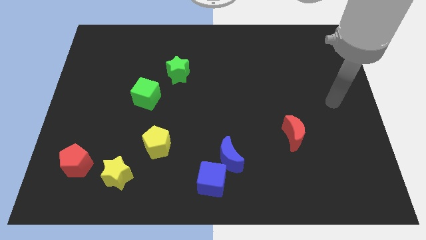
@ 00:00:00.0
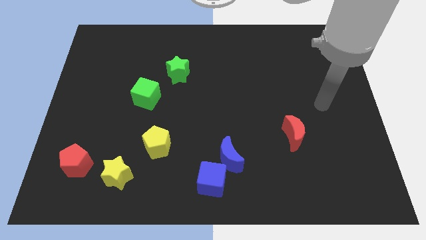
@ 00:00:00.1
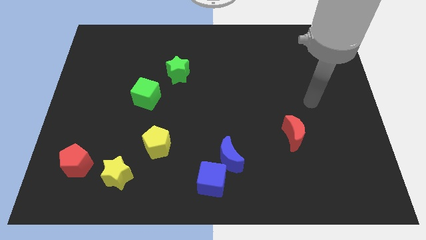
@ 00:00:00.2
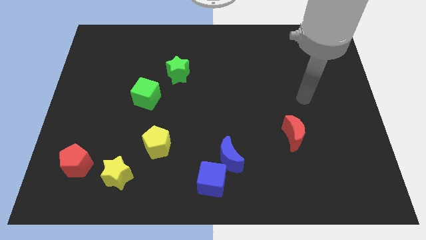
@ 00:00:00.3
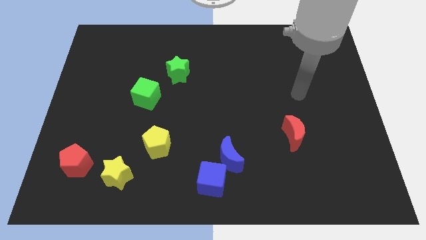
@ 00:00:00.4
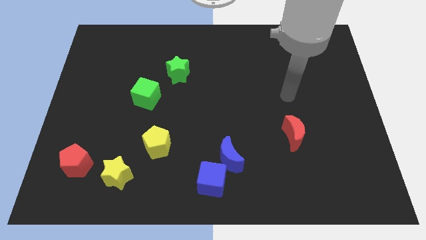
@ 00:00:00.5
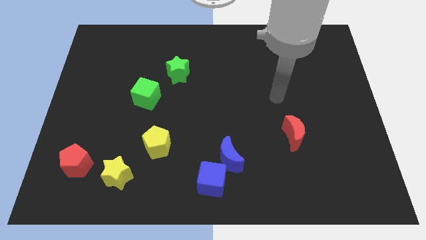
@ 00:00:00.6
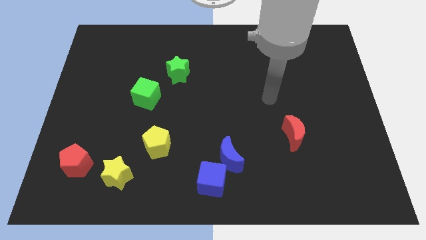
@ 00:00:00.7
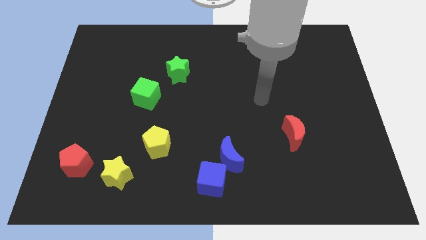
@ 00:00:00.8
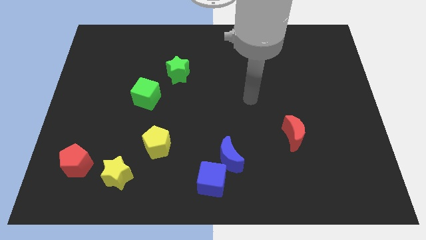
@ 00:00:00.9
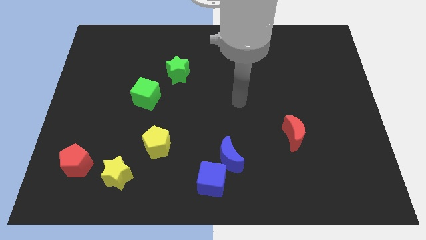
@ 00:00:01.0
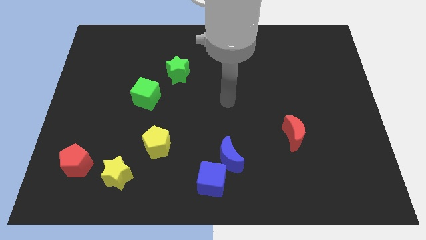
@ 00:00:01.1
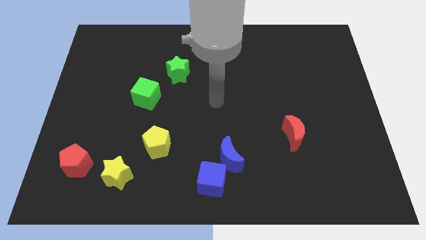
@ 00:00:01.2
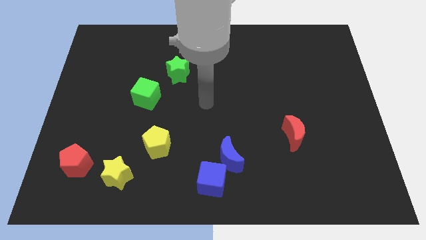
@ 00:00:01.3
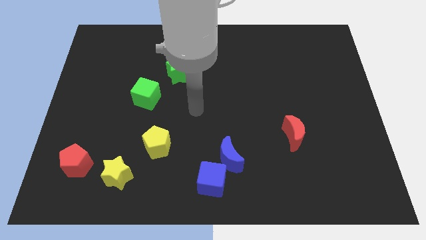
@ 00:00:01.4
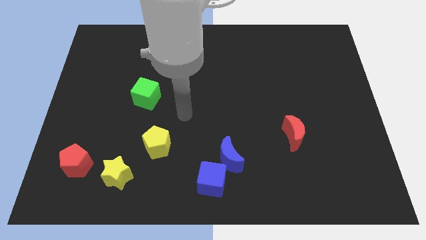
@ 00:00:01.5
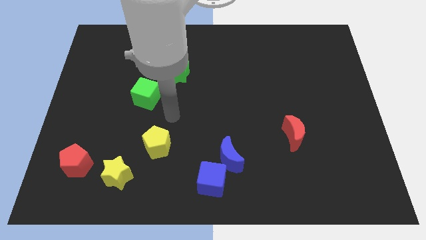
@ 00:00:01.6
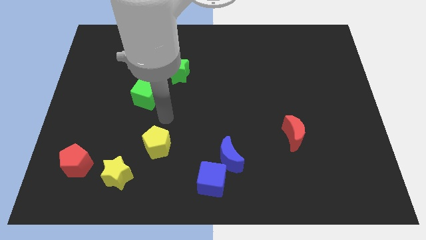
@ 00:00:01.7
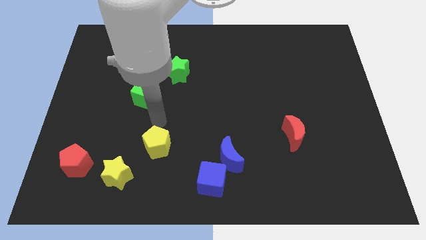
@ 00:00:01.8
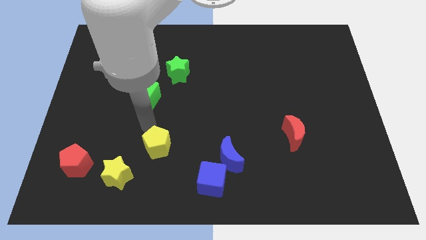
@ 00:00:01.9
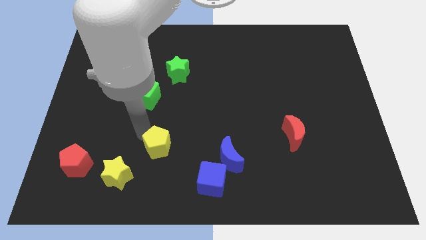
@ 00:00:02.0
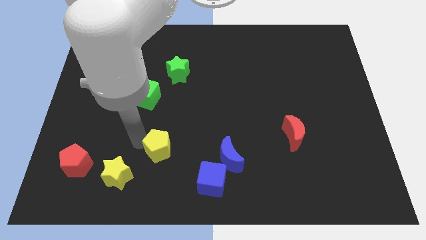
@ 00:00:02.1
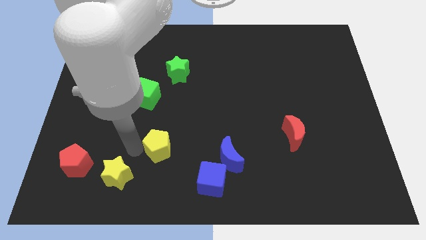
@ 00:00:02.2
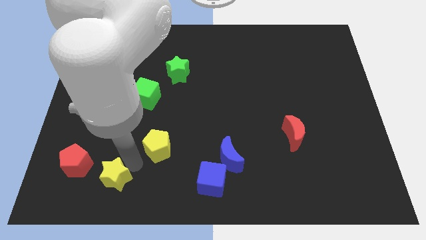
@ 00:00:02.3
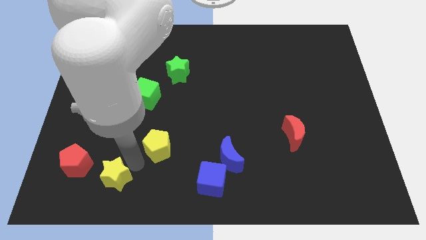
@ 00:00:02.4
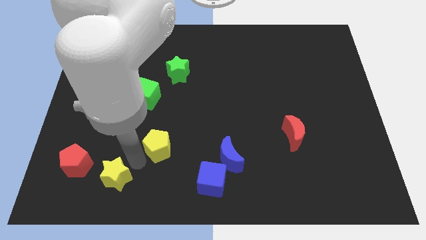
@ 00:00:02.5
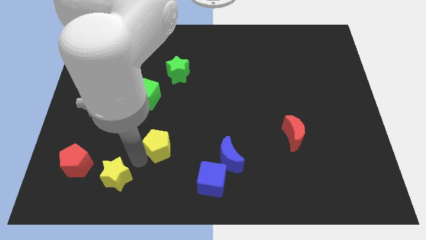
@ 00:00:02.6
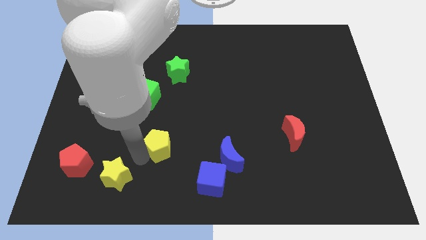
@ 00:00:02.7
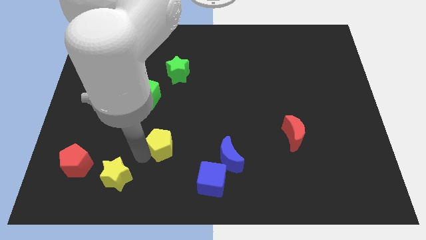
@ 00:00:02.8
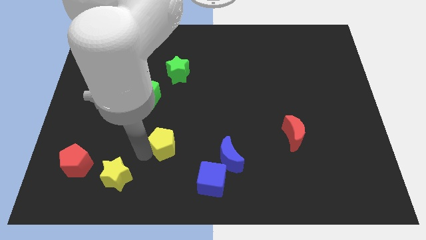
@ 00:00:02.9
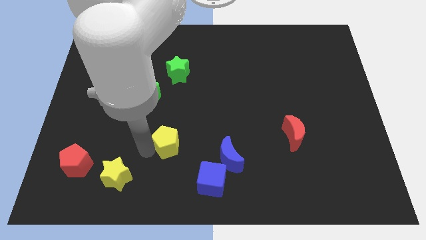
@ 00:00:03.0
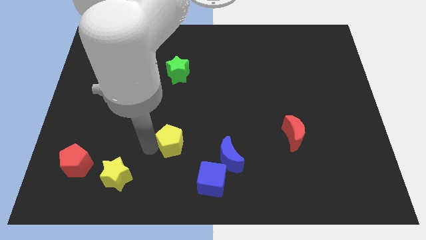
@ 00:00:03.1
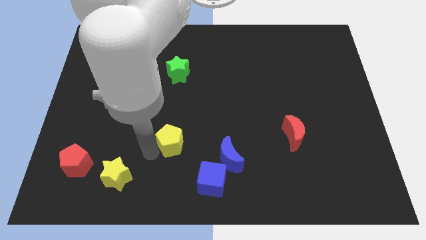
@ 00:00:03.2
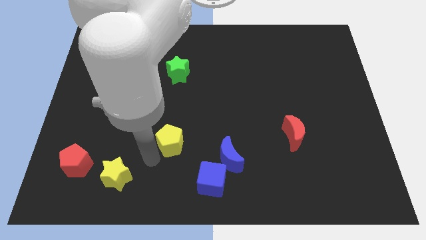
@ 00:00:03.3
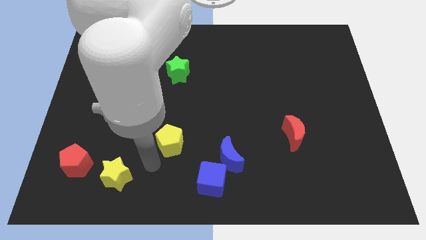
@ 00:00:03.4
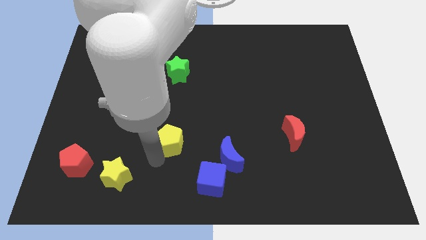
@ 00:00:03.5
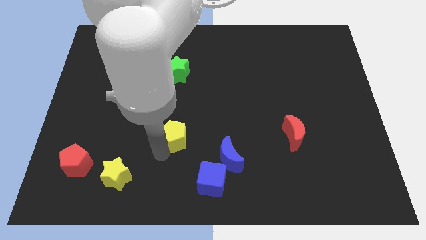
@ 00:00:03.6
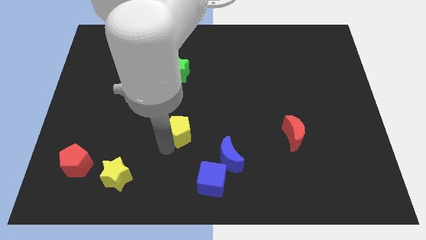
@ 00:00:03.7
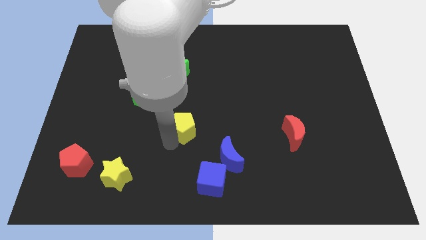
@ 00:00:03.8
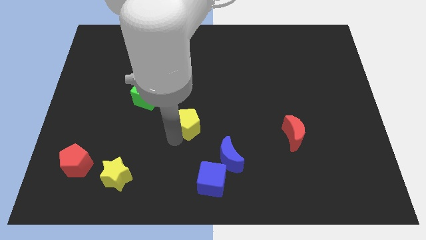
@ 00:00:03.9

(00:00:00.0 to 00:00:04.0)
push the yellow pentagon a little bit upwards and to the right diagonally

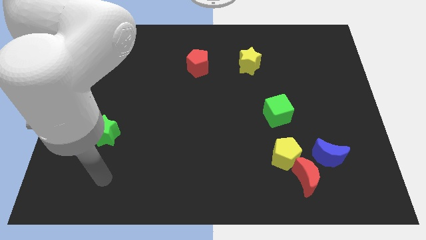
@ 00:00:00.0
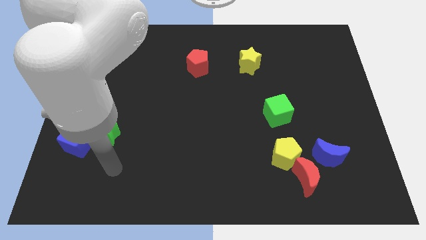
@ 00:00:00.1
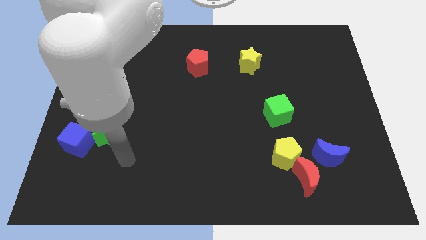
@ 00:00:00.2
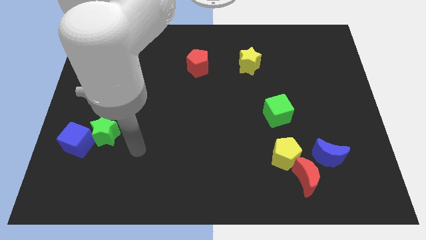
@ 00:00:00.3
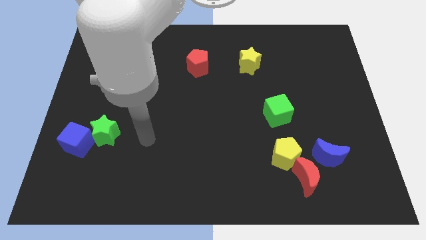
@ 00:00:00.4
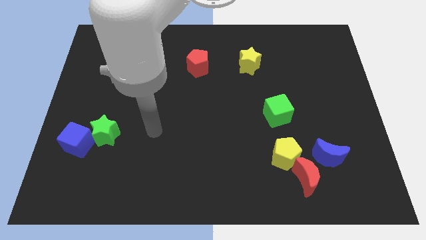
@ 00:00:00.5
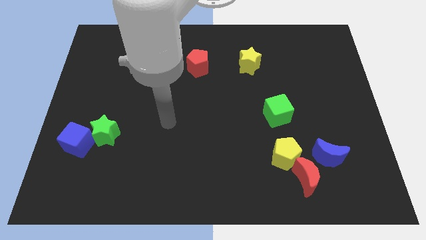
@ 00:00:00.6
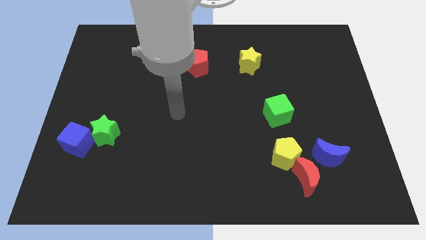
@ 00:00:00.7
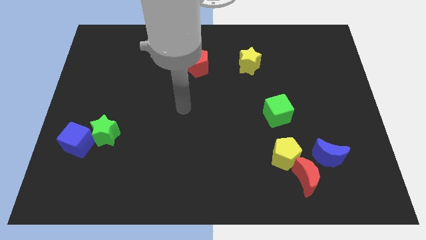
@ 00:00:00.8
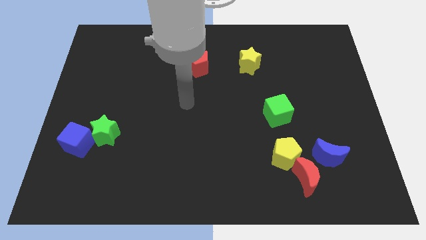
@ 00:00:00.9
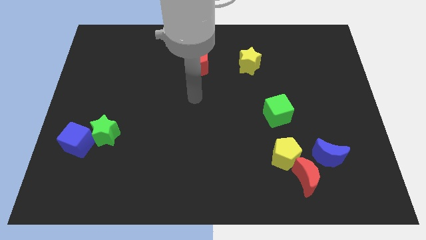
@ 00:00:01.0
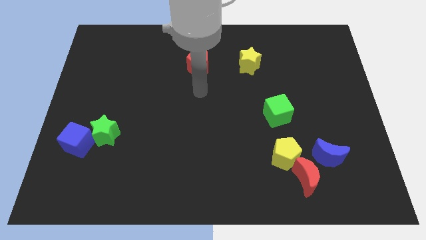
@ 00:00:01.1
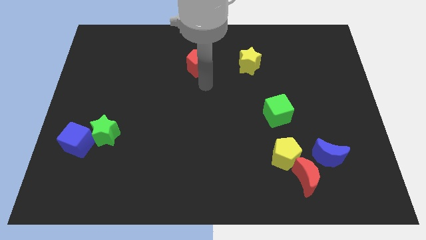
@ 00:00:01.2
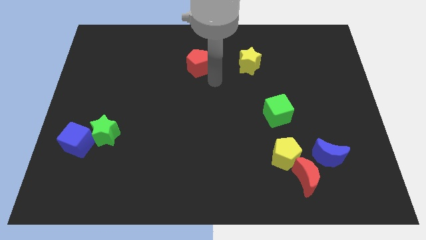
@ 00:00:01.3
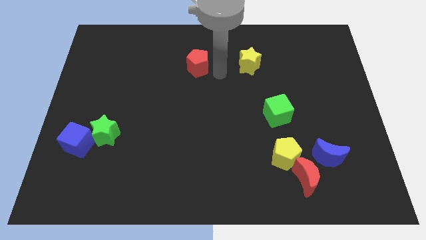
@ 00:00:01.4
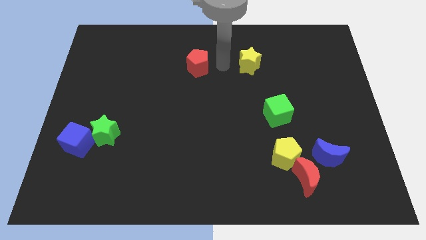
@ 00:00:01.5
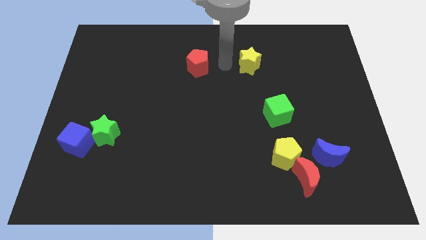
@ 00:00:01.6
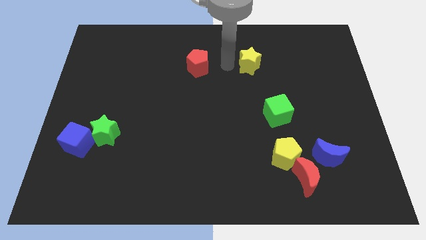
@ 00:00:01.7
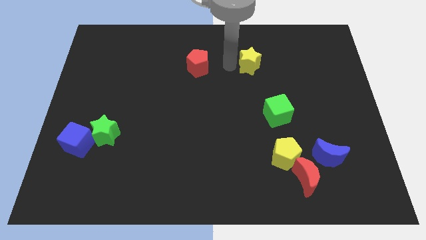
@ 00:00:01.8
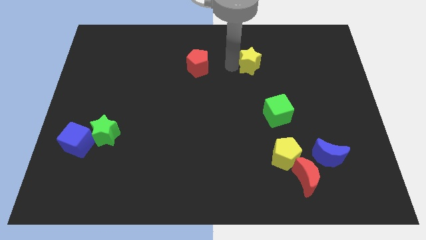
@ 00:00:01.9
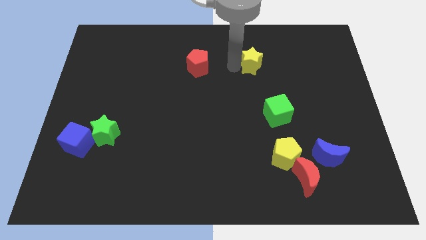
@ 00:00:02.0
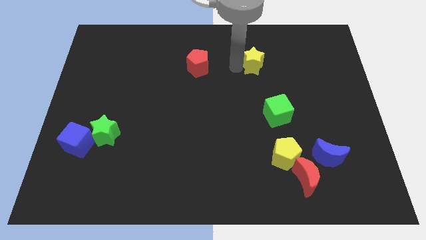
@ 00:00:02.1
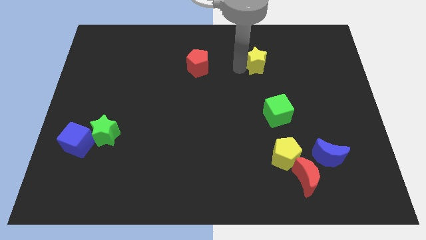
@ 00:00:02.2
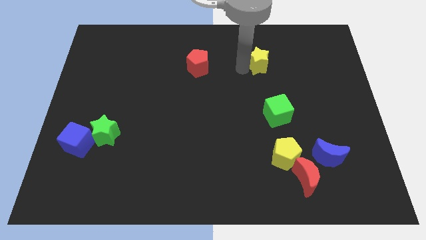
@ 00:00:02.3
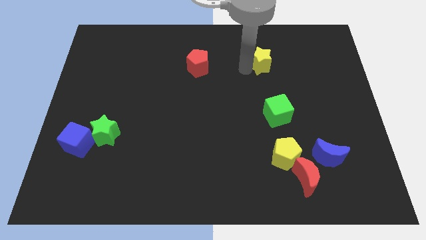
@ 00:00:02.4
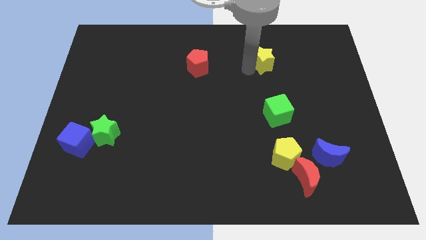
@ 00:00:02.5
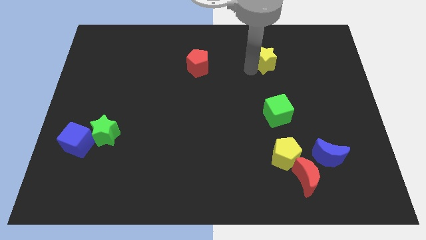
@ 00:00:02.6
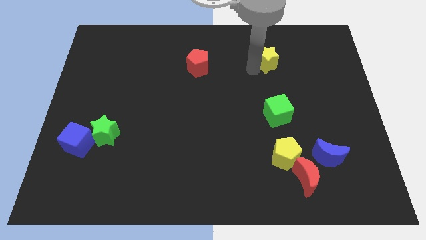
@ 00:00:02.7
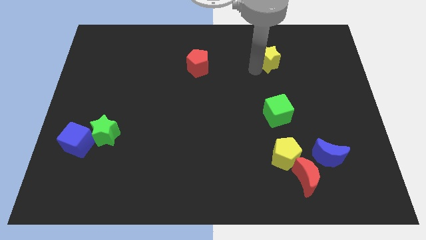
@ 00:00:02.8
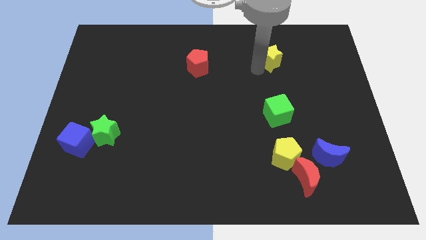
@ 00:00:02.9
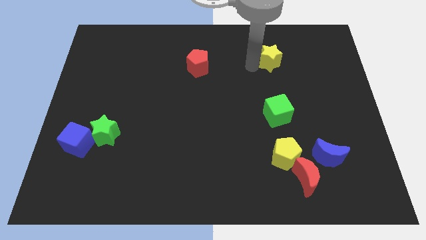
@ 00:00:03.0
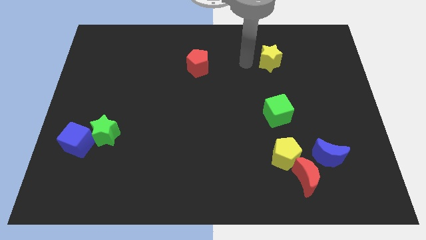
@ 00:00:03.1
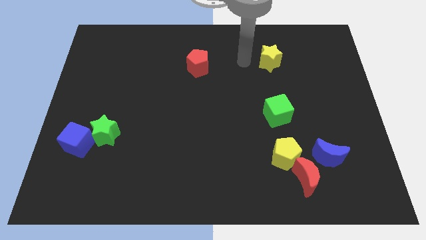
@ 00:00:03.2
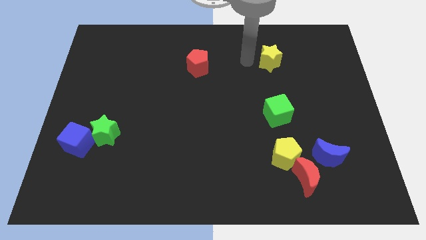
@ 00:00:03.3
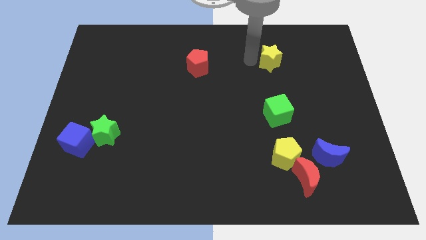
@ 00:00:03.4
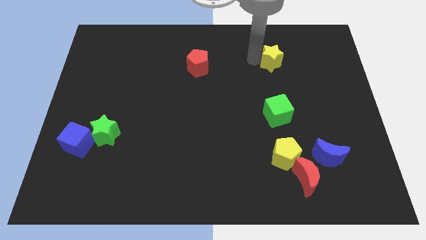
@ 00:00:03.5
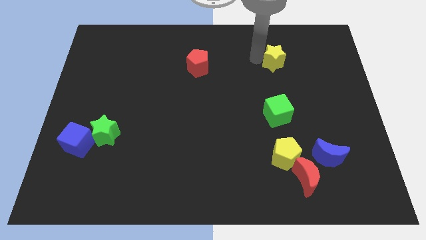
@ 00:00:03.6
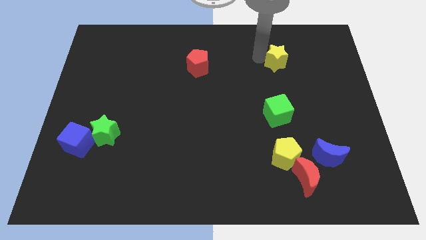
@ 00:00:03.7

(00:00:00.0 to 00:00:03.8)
push the yellow star right a little bit
